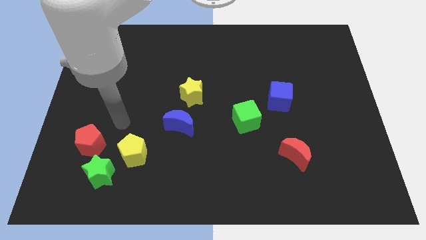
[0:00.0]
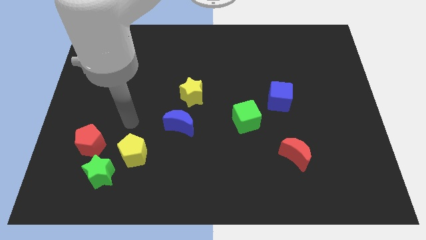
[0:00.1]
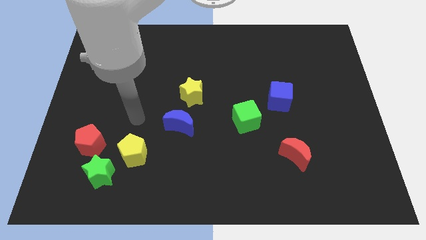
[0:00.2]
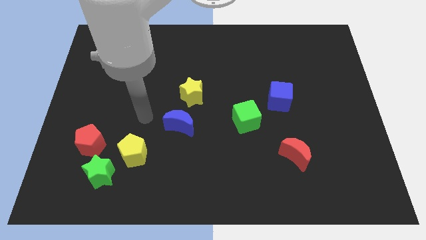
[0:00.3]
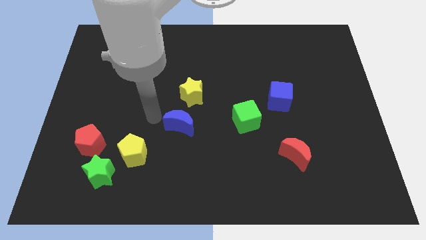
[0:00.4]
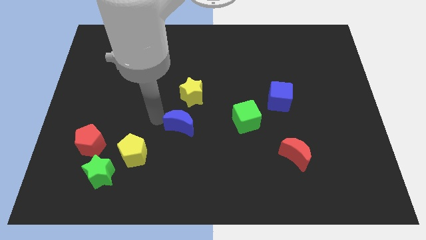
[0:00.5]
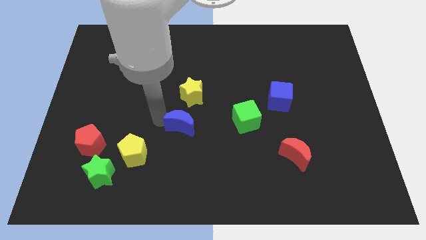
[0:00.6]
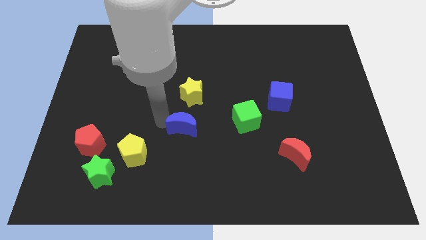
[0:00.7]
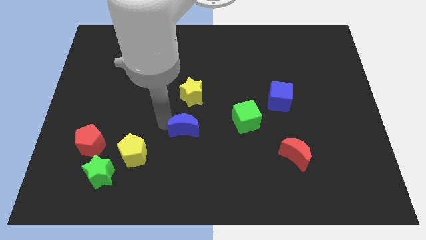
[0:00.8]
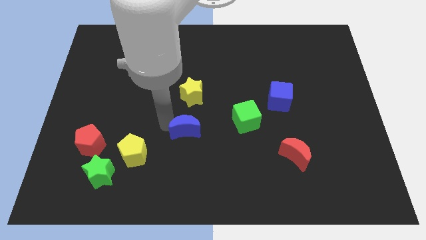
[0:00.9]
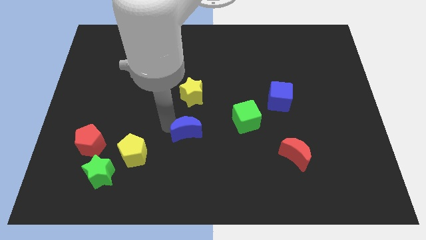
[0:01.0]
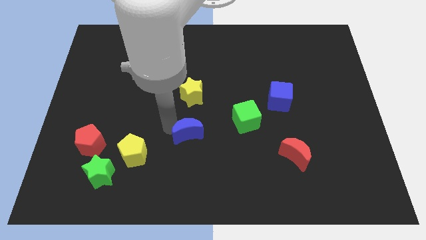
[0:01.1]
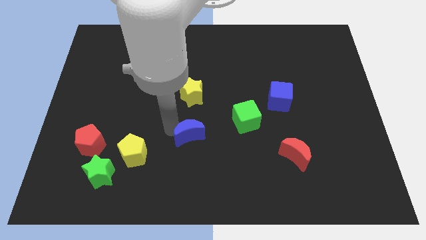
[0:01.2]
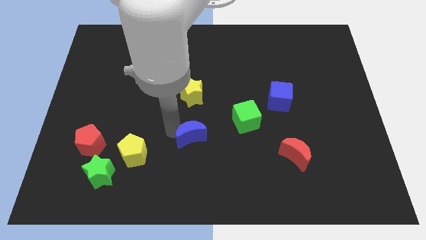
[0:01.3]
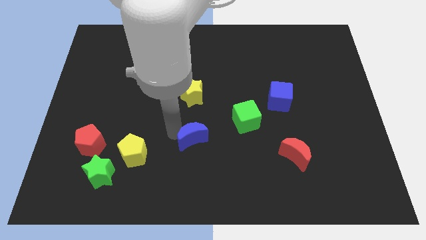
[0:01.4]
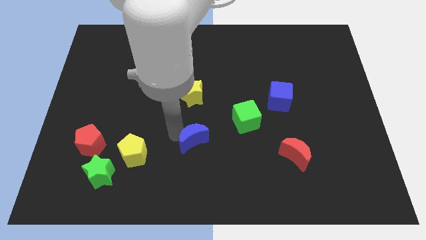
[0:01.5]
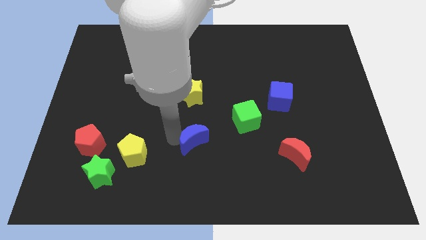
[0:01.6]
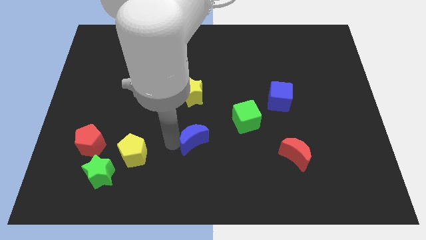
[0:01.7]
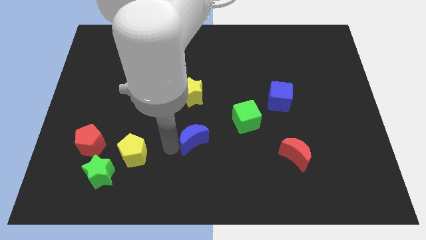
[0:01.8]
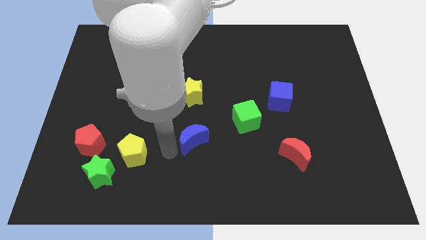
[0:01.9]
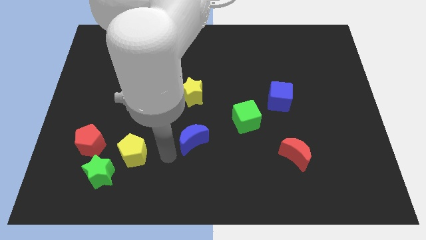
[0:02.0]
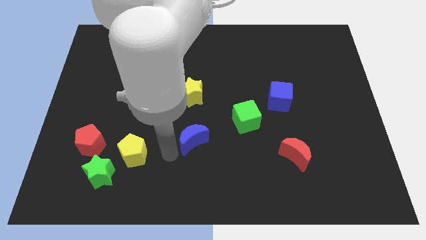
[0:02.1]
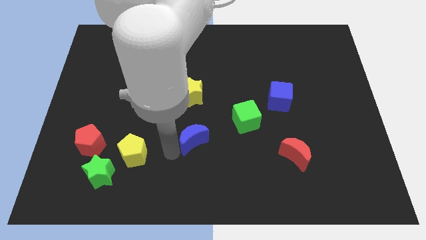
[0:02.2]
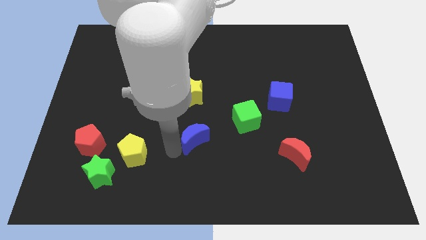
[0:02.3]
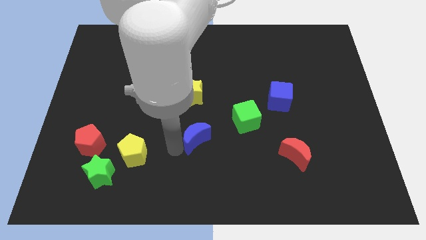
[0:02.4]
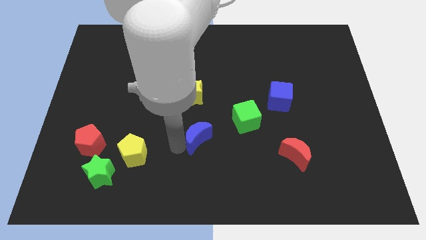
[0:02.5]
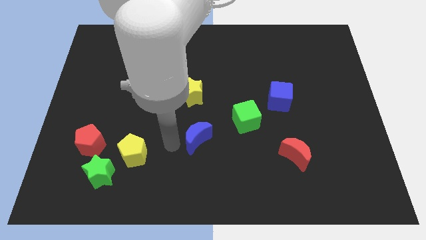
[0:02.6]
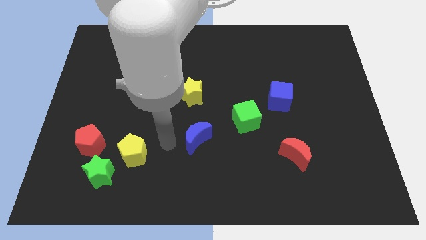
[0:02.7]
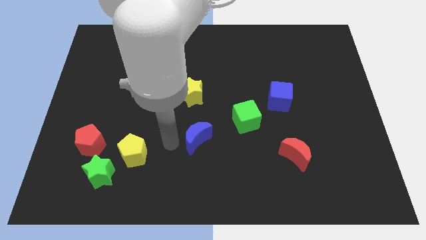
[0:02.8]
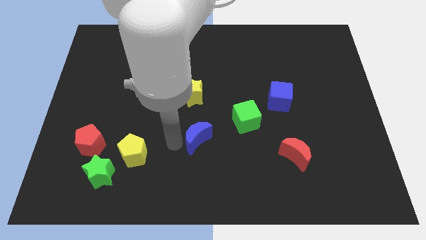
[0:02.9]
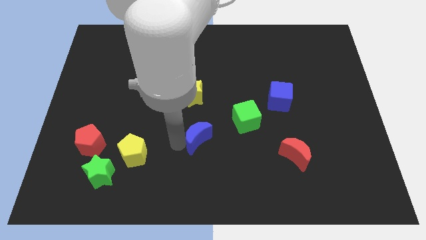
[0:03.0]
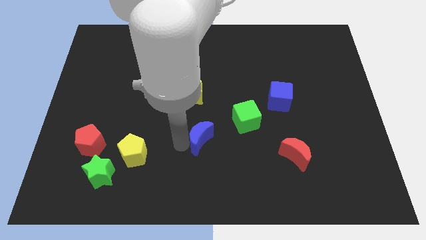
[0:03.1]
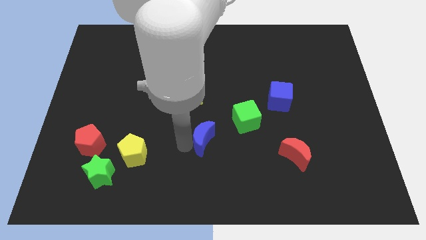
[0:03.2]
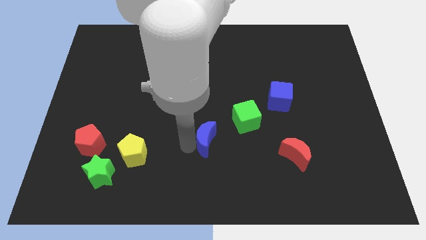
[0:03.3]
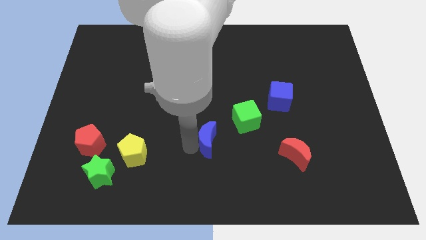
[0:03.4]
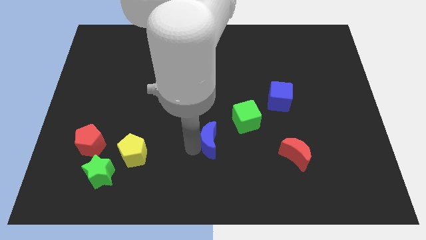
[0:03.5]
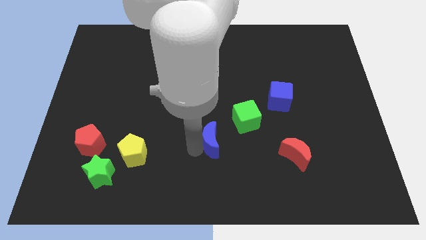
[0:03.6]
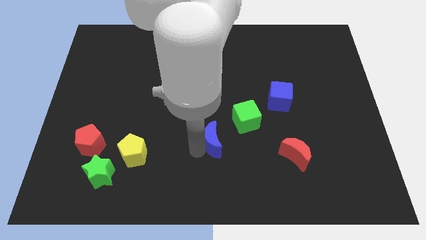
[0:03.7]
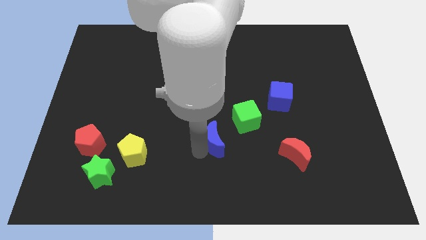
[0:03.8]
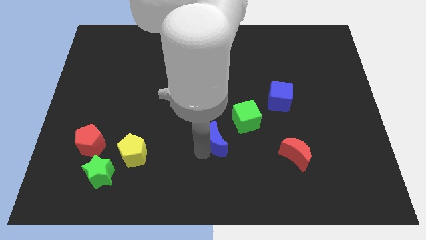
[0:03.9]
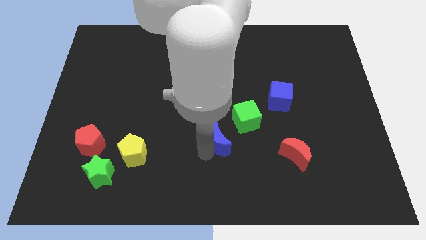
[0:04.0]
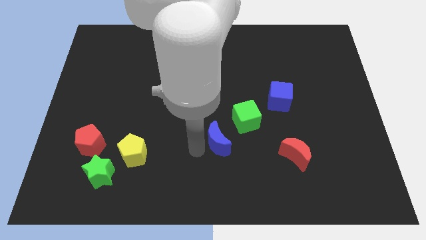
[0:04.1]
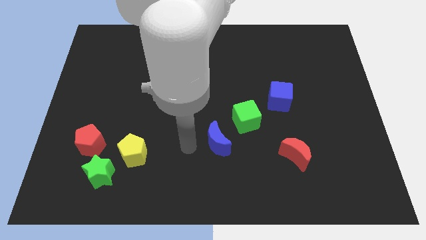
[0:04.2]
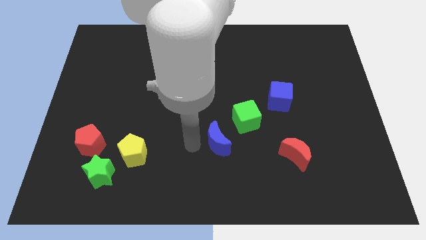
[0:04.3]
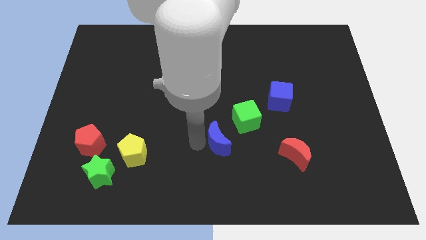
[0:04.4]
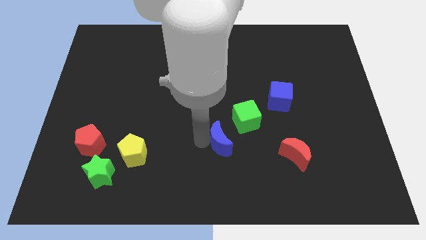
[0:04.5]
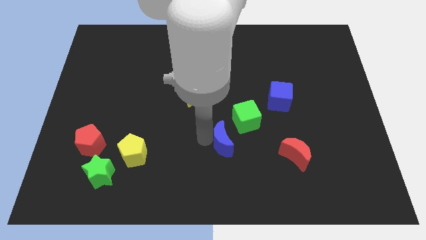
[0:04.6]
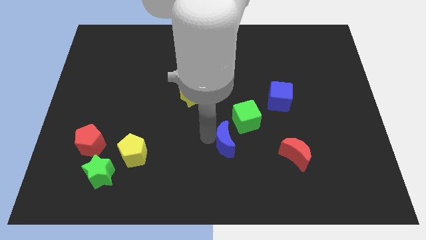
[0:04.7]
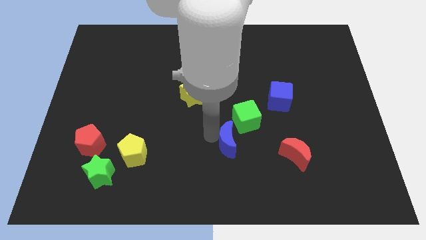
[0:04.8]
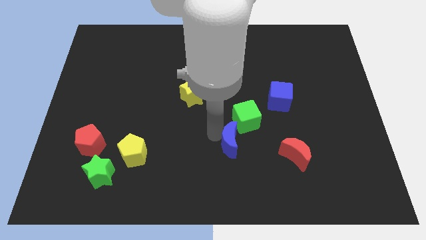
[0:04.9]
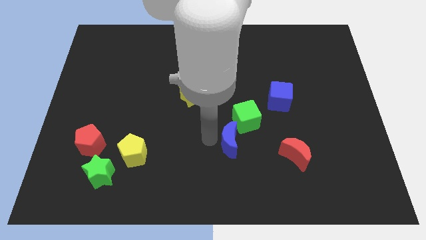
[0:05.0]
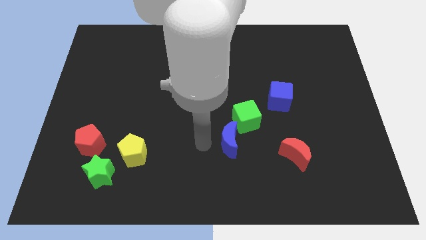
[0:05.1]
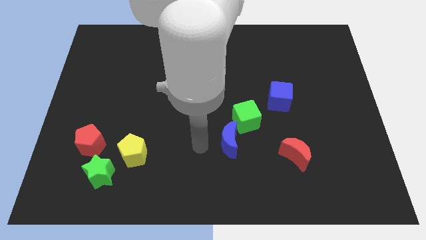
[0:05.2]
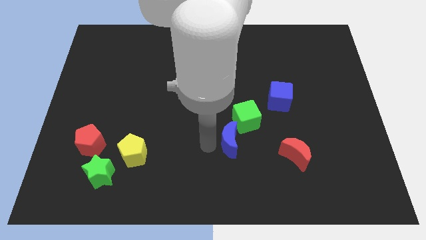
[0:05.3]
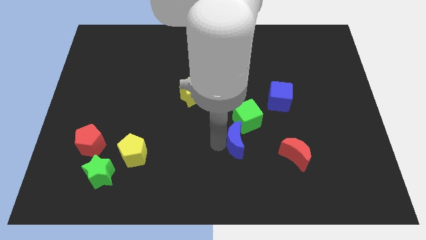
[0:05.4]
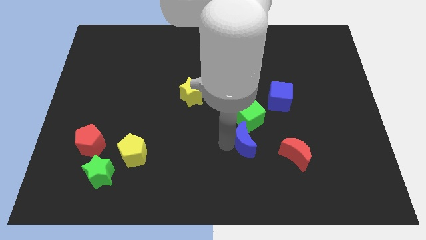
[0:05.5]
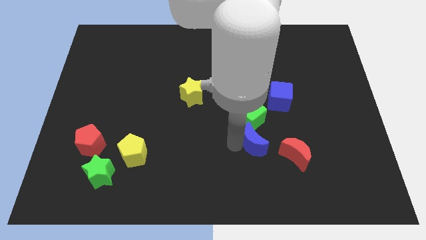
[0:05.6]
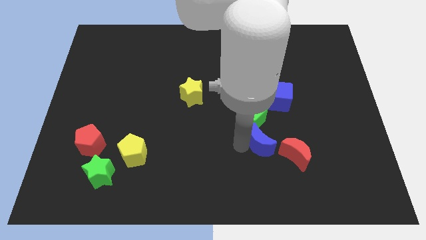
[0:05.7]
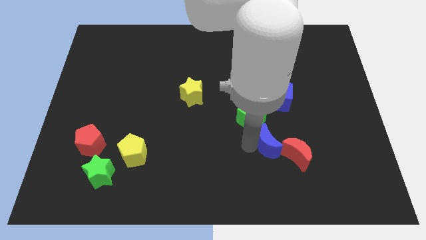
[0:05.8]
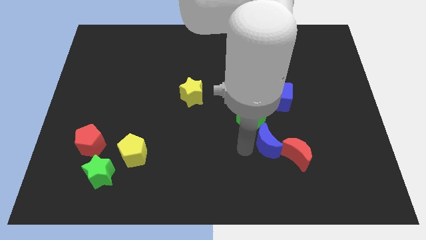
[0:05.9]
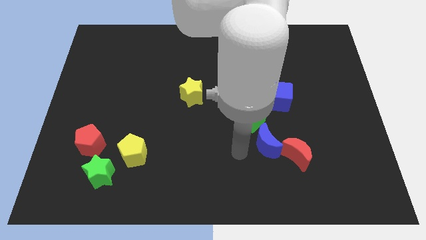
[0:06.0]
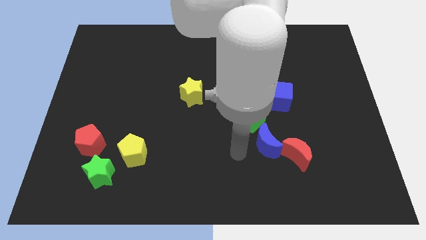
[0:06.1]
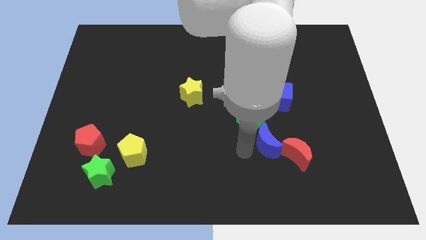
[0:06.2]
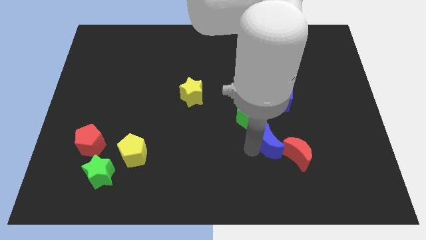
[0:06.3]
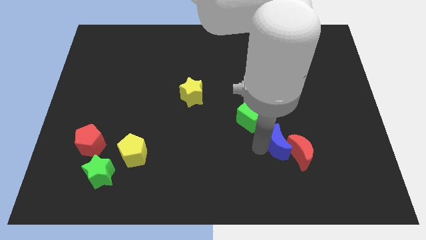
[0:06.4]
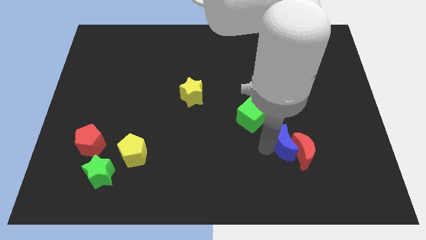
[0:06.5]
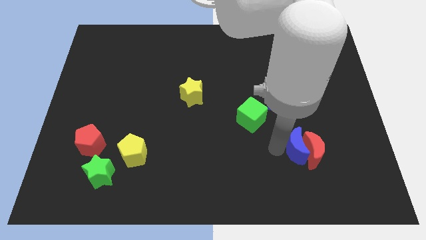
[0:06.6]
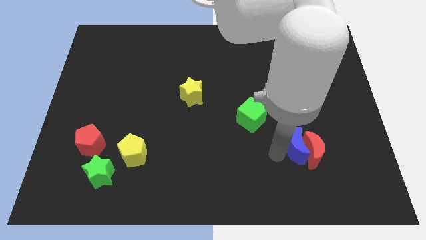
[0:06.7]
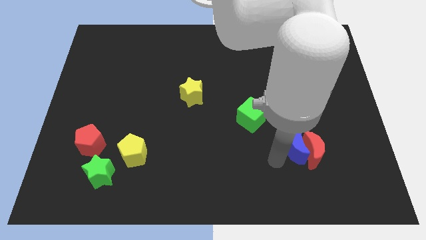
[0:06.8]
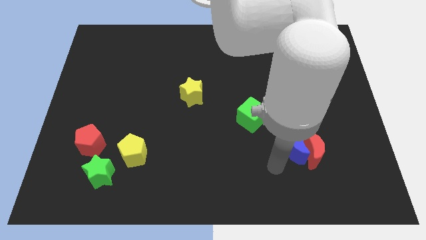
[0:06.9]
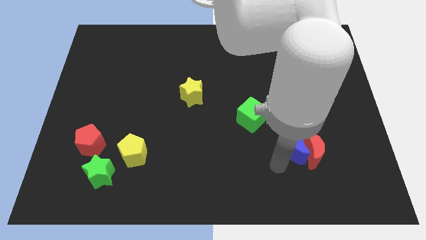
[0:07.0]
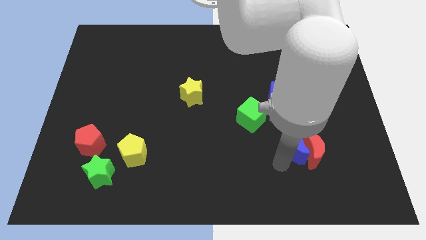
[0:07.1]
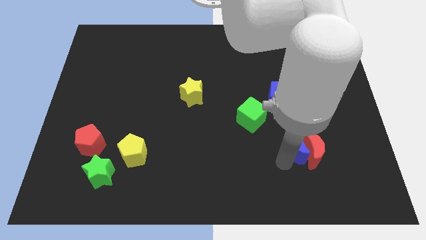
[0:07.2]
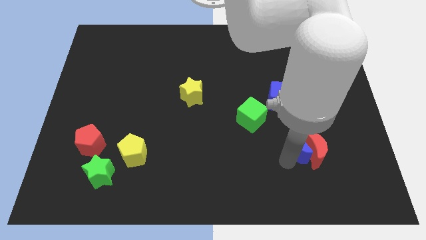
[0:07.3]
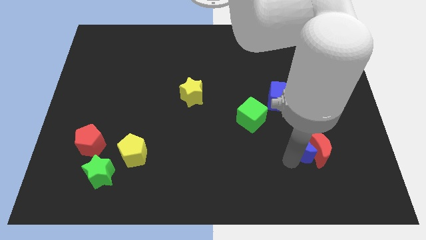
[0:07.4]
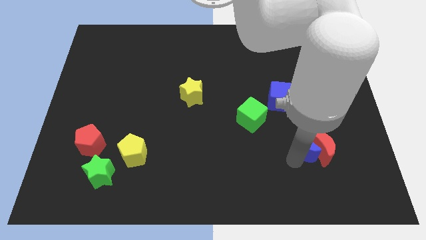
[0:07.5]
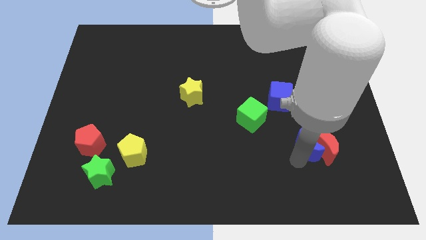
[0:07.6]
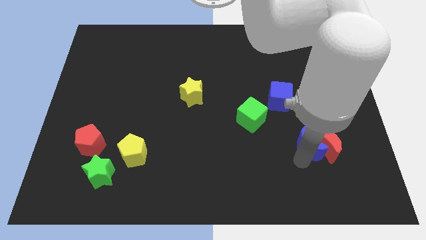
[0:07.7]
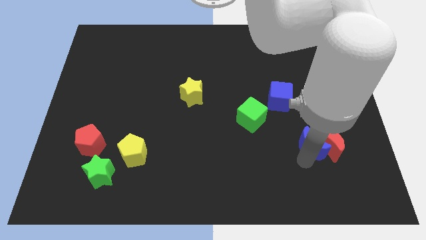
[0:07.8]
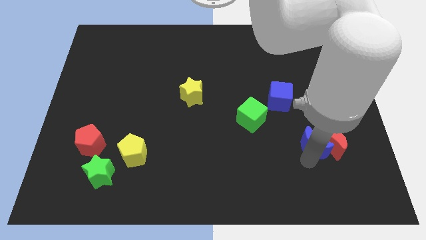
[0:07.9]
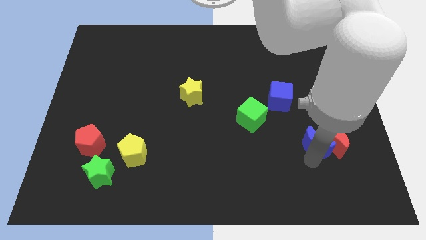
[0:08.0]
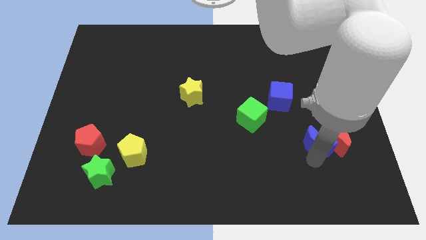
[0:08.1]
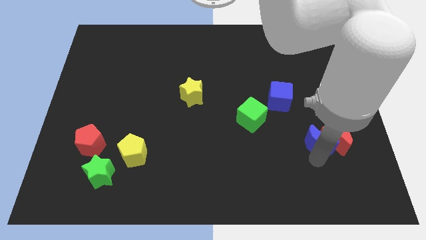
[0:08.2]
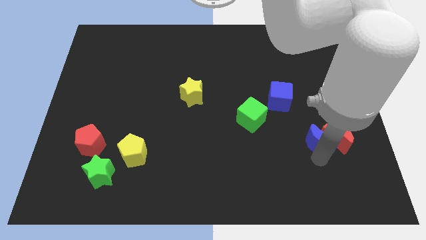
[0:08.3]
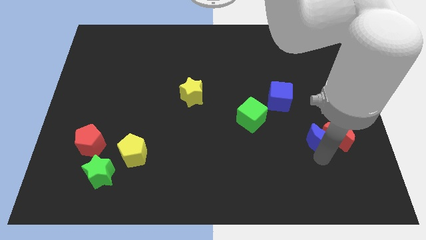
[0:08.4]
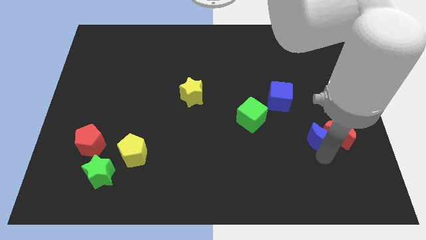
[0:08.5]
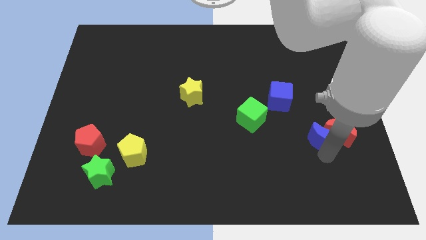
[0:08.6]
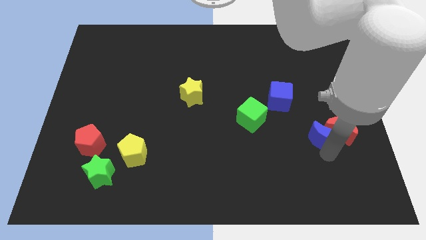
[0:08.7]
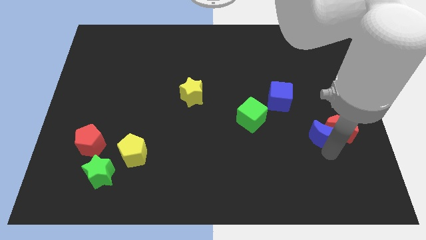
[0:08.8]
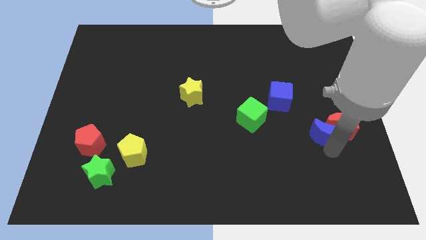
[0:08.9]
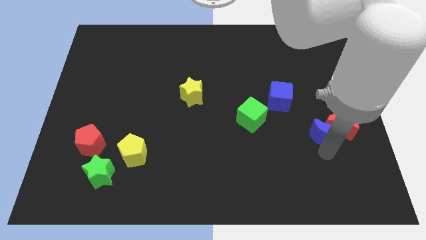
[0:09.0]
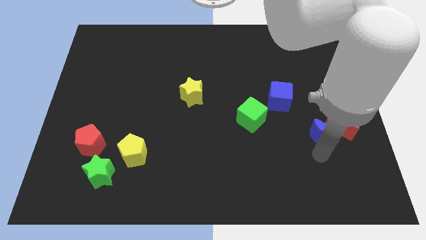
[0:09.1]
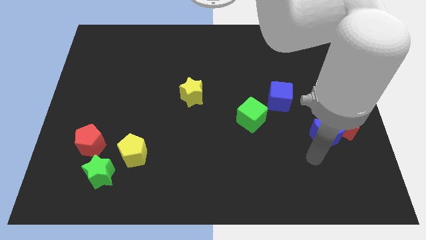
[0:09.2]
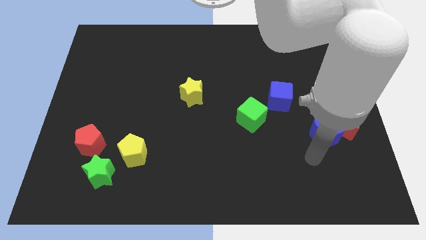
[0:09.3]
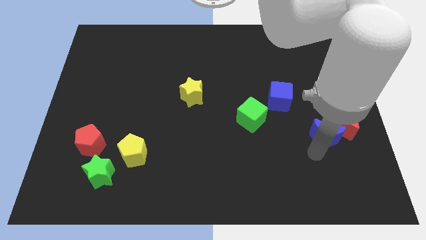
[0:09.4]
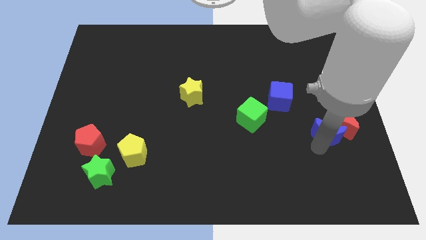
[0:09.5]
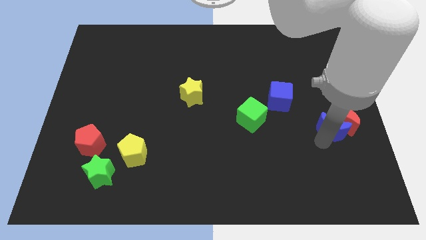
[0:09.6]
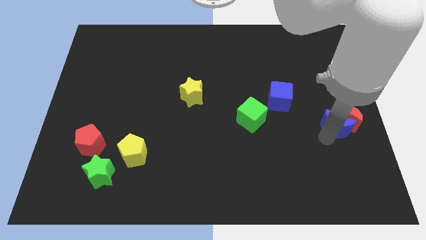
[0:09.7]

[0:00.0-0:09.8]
slide the blue moon to the right side
